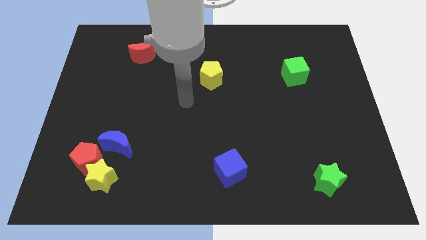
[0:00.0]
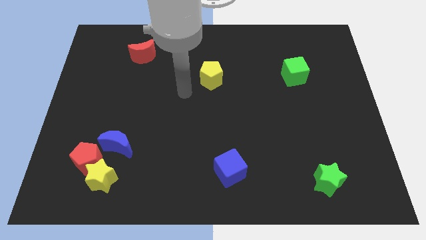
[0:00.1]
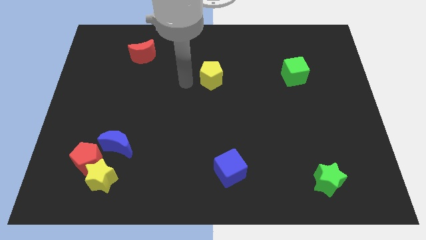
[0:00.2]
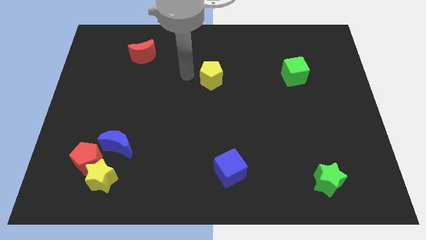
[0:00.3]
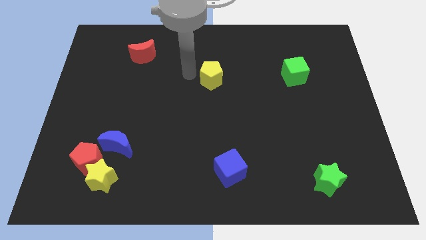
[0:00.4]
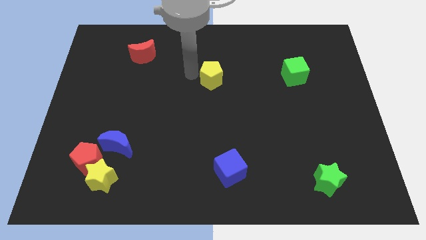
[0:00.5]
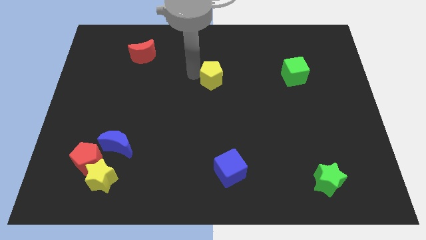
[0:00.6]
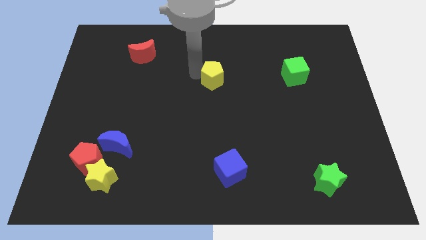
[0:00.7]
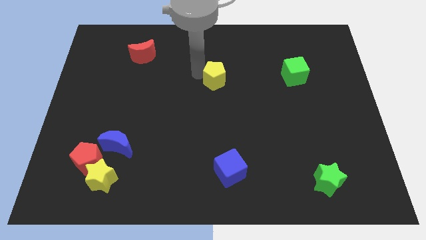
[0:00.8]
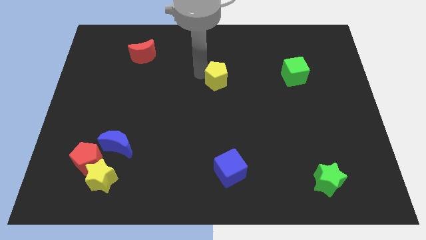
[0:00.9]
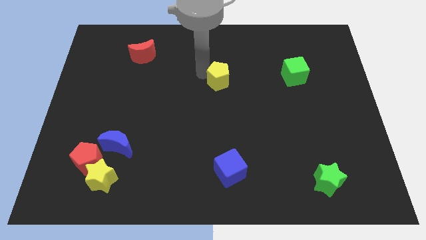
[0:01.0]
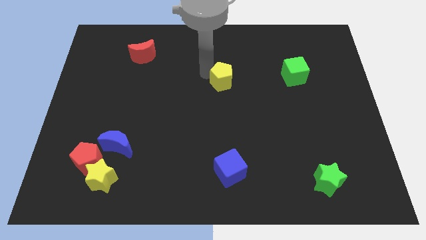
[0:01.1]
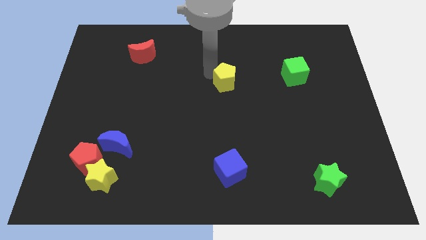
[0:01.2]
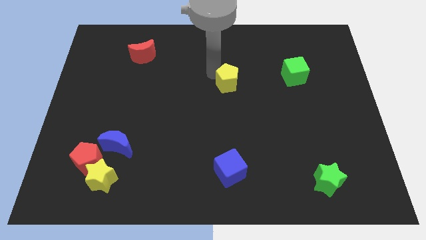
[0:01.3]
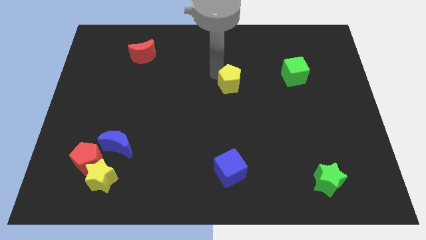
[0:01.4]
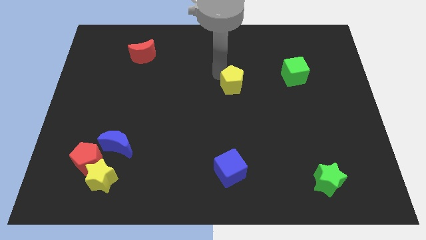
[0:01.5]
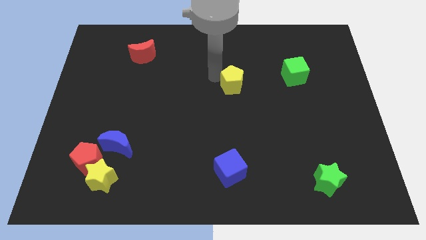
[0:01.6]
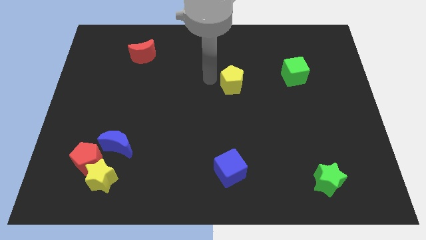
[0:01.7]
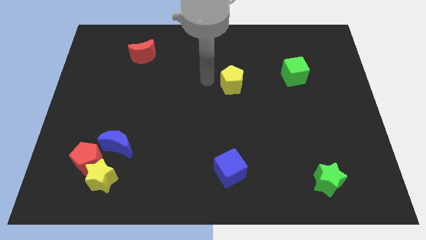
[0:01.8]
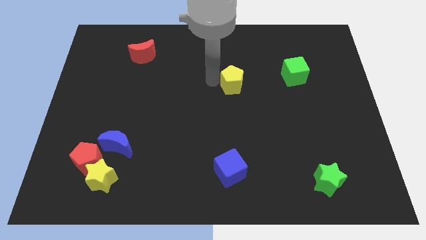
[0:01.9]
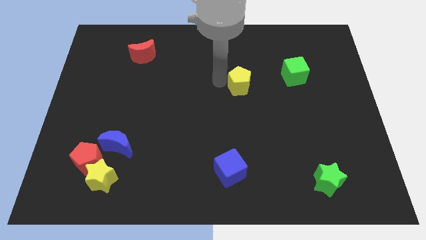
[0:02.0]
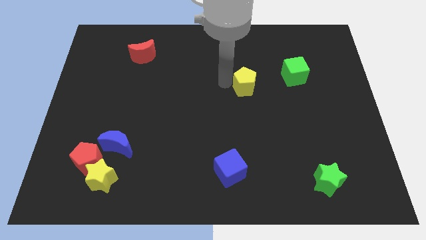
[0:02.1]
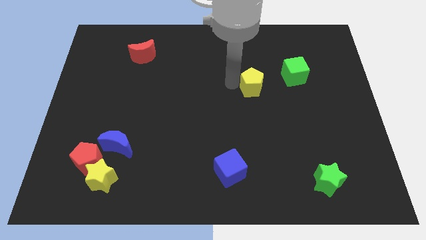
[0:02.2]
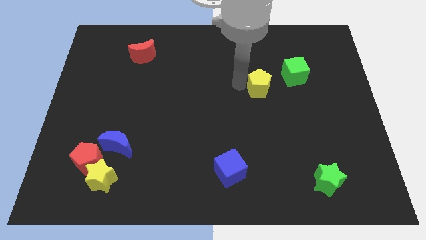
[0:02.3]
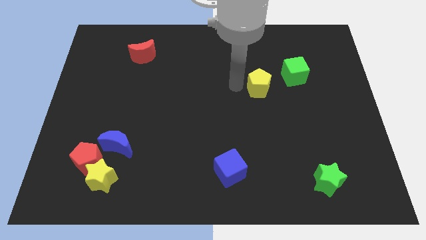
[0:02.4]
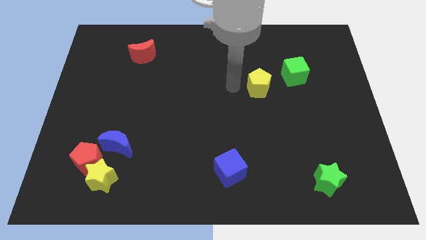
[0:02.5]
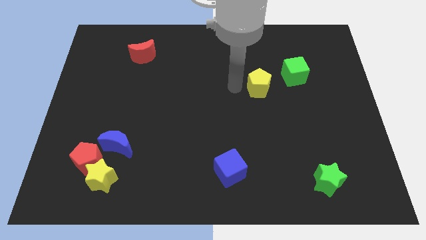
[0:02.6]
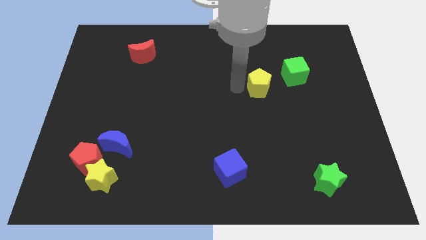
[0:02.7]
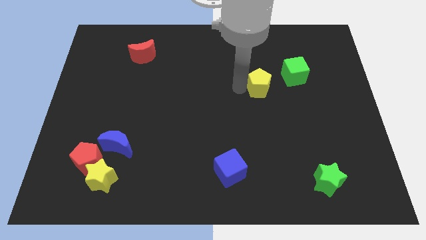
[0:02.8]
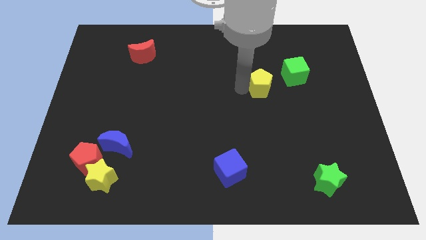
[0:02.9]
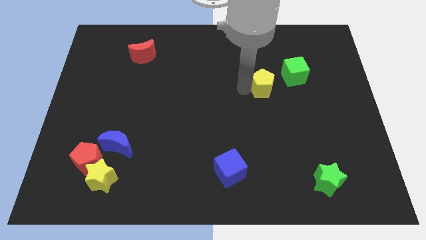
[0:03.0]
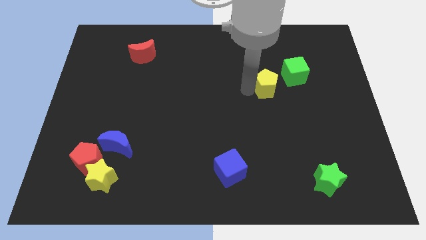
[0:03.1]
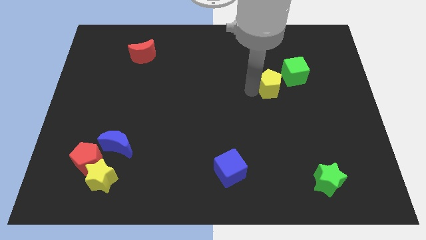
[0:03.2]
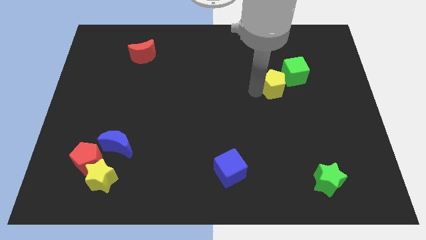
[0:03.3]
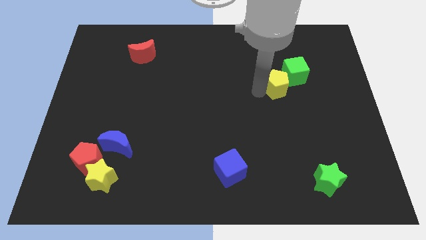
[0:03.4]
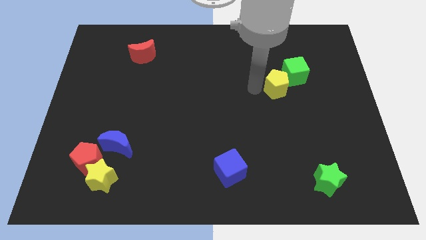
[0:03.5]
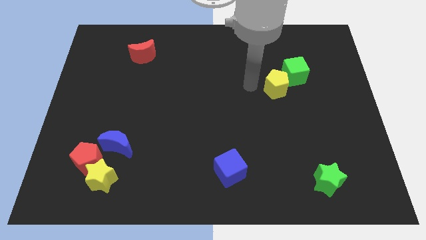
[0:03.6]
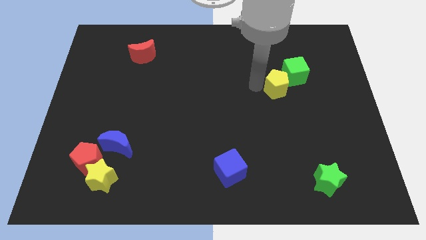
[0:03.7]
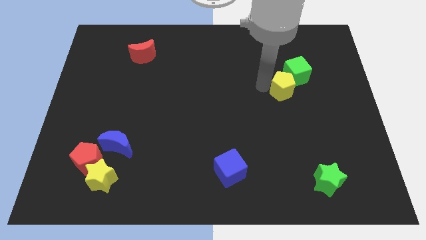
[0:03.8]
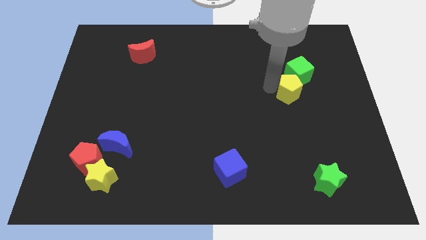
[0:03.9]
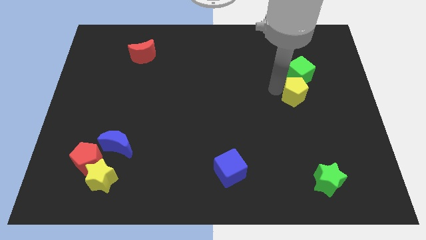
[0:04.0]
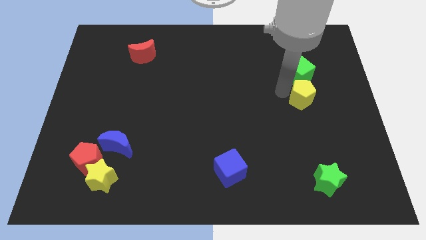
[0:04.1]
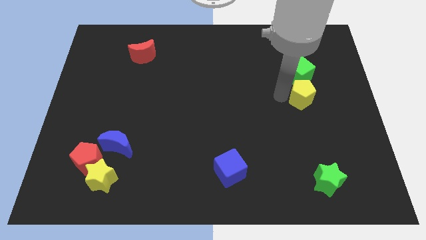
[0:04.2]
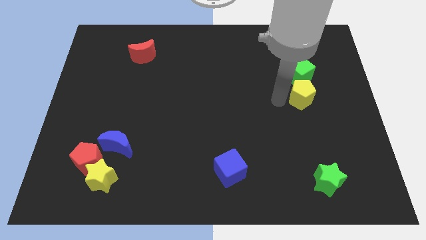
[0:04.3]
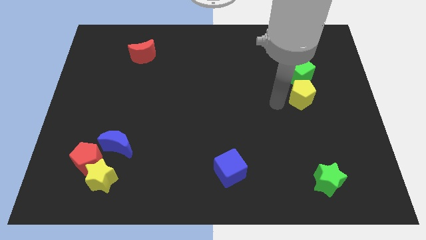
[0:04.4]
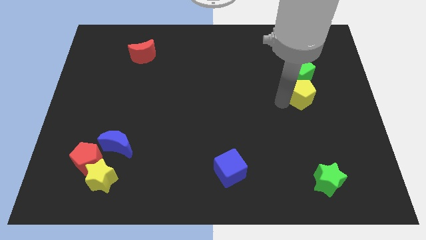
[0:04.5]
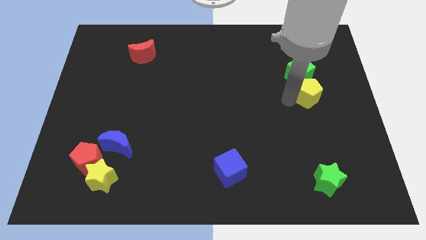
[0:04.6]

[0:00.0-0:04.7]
put the yellow pentagon to the bottom right side of the green cube

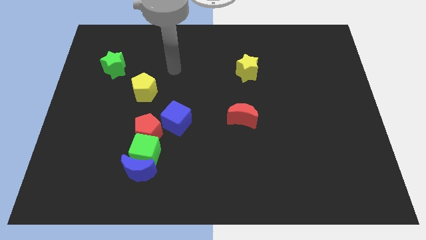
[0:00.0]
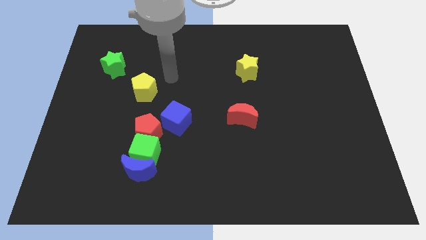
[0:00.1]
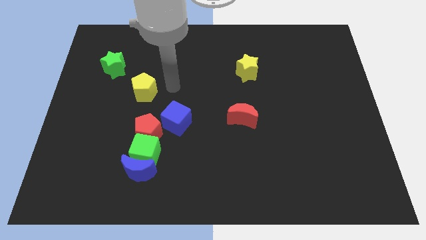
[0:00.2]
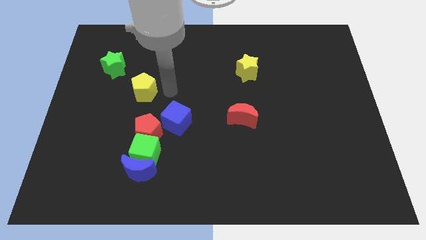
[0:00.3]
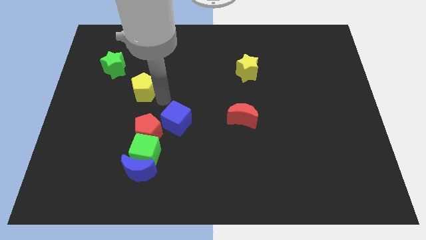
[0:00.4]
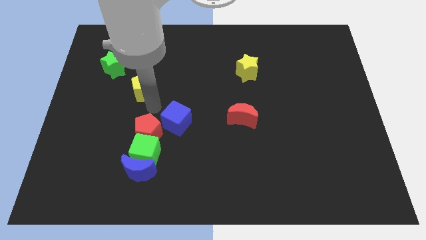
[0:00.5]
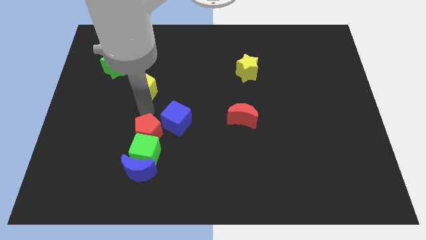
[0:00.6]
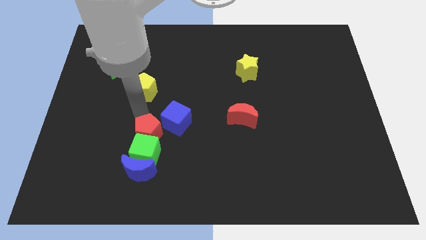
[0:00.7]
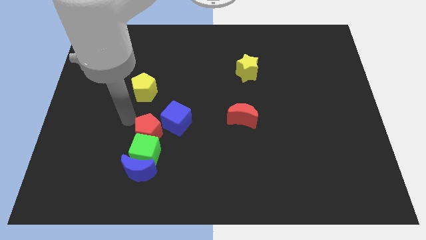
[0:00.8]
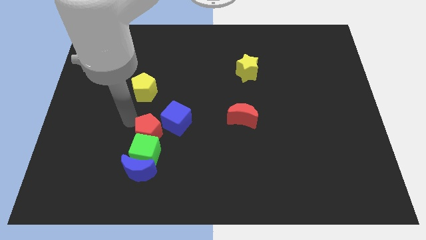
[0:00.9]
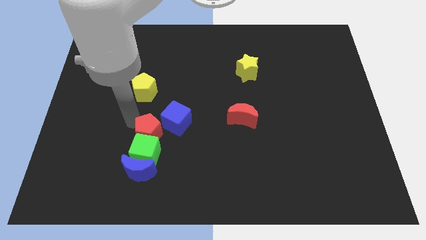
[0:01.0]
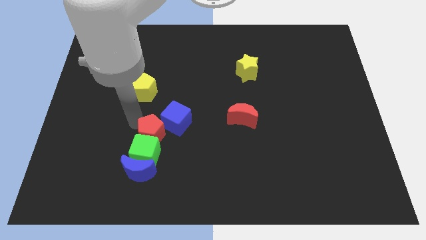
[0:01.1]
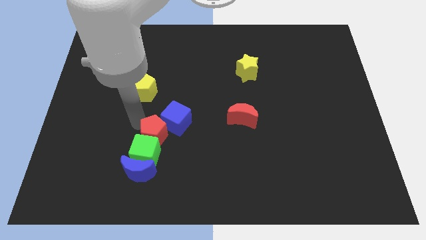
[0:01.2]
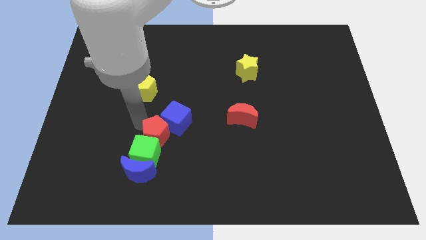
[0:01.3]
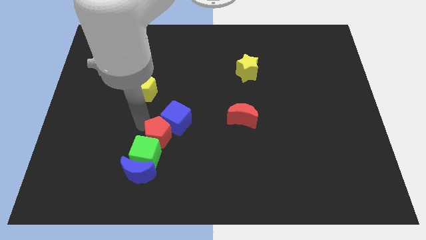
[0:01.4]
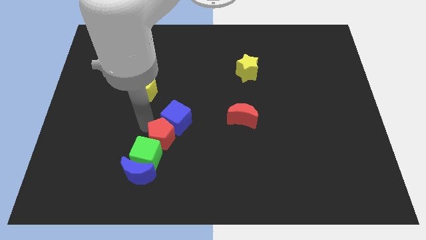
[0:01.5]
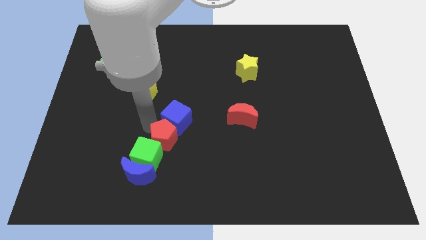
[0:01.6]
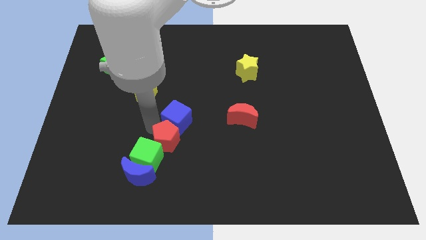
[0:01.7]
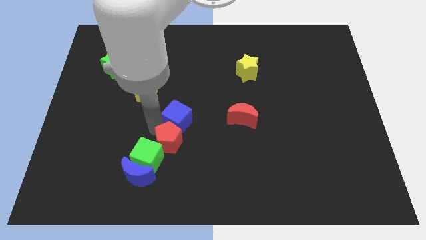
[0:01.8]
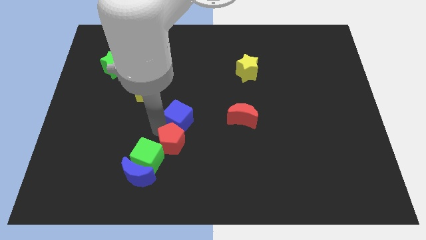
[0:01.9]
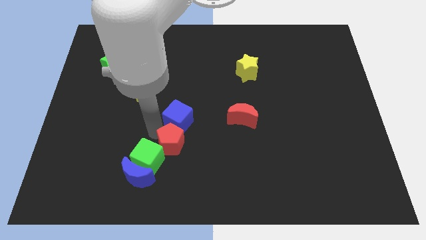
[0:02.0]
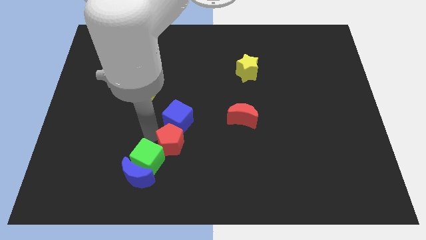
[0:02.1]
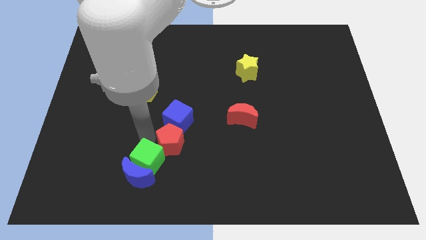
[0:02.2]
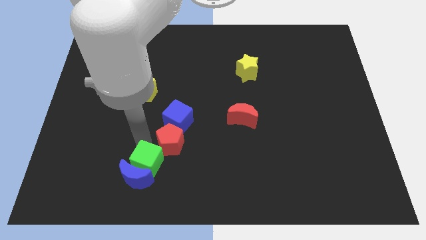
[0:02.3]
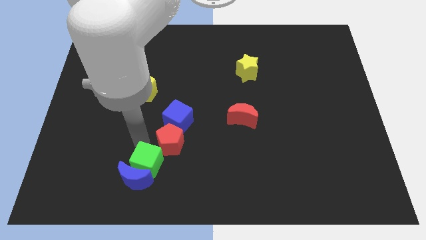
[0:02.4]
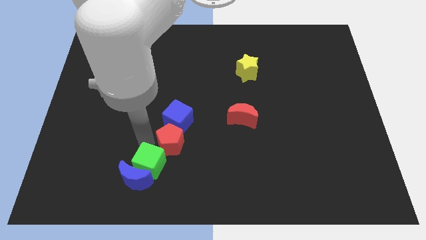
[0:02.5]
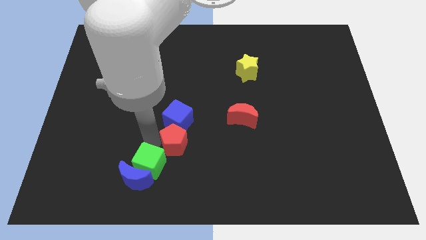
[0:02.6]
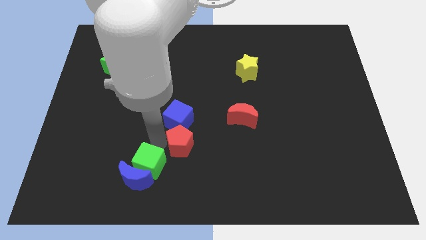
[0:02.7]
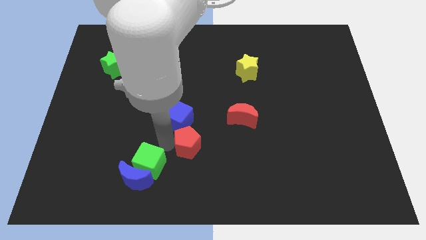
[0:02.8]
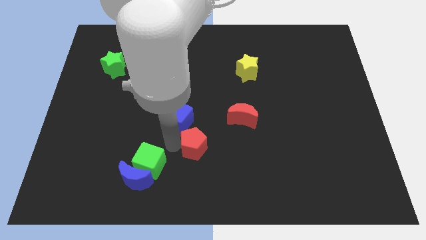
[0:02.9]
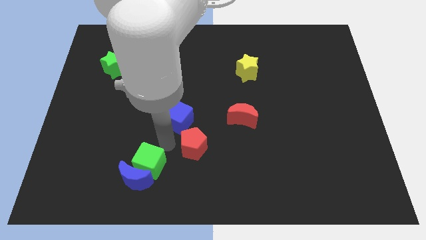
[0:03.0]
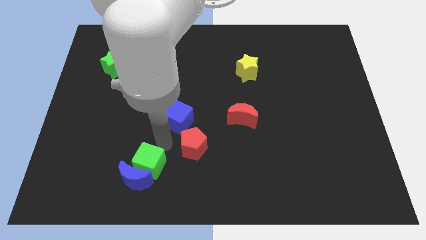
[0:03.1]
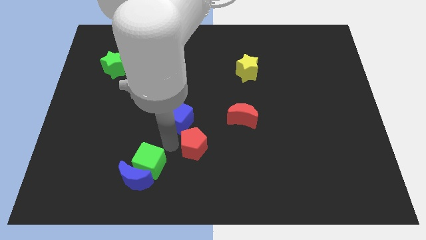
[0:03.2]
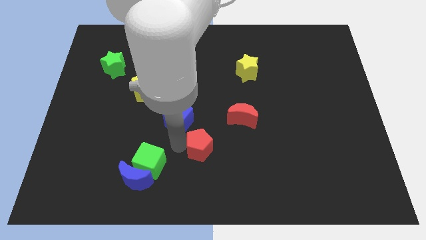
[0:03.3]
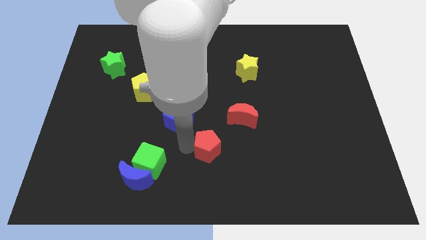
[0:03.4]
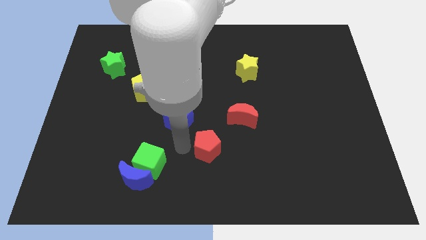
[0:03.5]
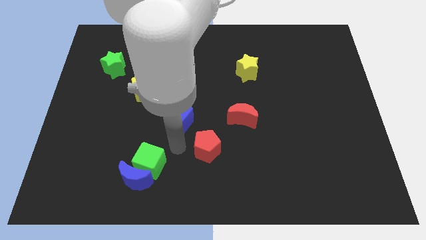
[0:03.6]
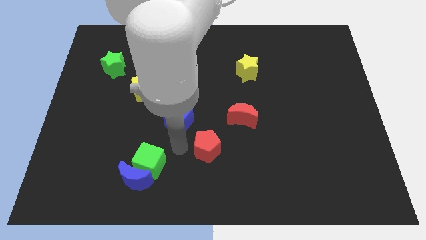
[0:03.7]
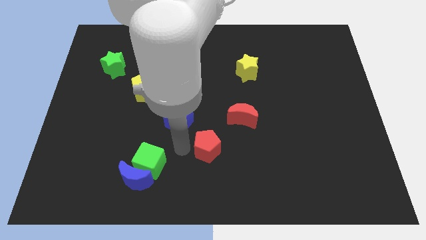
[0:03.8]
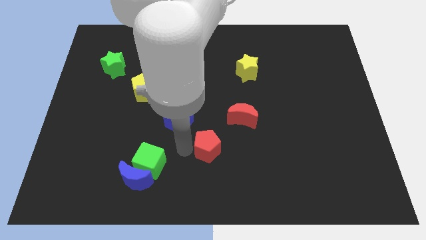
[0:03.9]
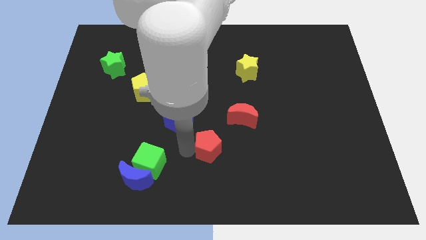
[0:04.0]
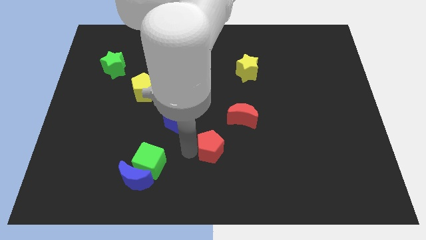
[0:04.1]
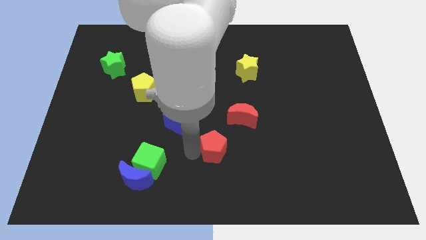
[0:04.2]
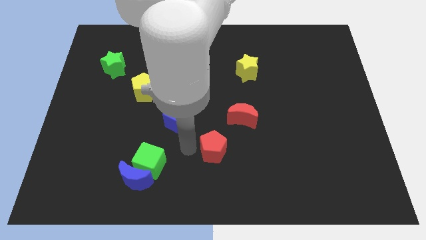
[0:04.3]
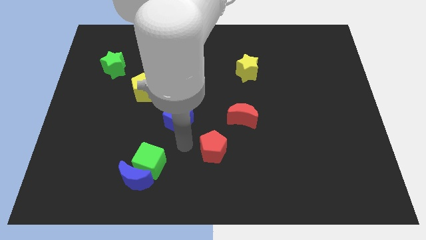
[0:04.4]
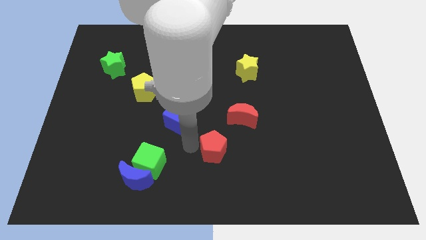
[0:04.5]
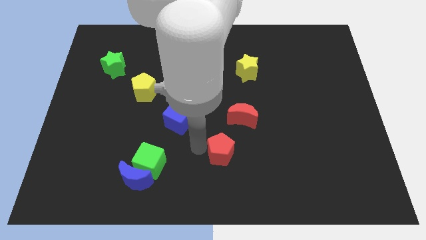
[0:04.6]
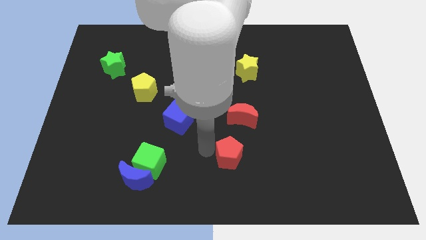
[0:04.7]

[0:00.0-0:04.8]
put the red pentagon below the red moon
